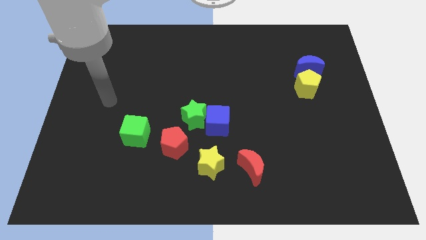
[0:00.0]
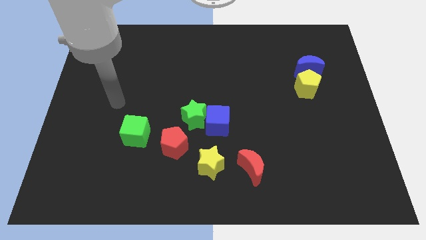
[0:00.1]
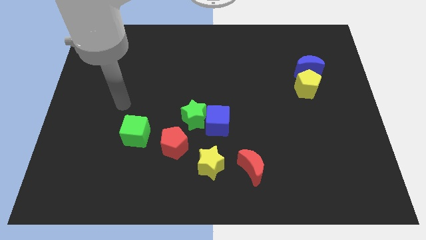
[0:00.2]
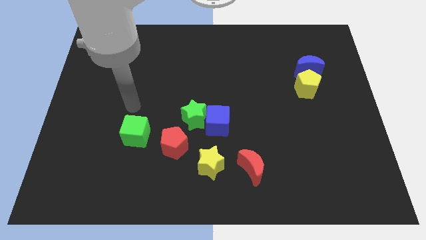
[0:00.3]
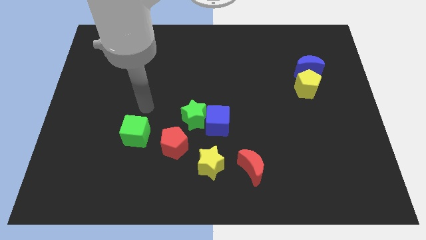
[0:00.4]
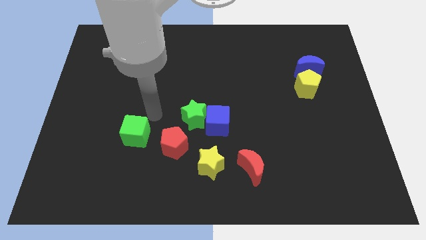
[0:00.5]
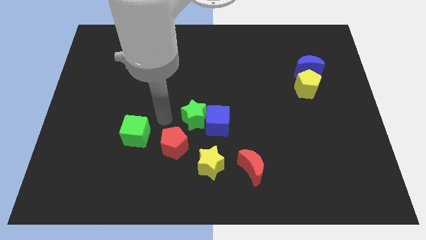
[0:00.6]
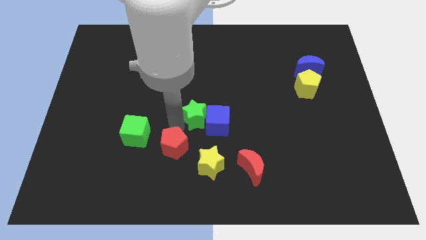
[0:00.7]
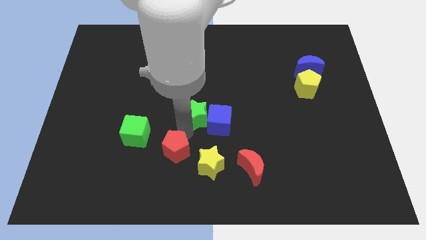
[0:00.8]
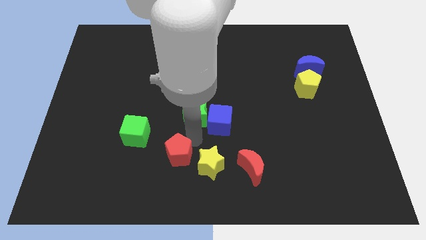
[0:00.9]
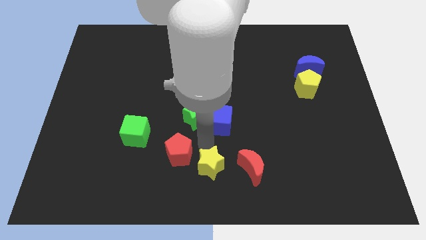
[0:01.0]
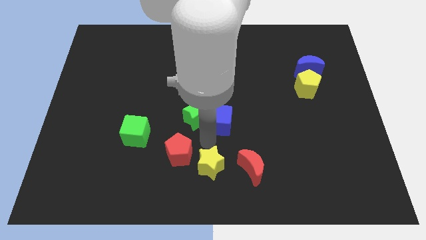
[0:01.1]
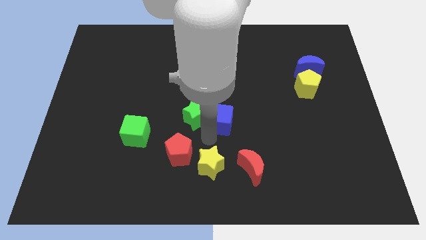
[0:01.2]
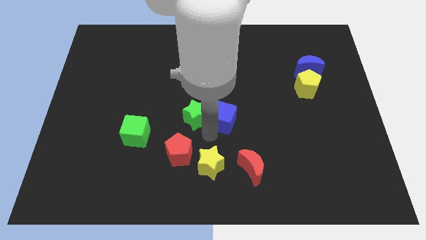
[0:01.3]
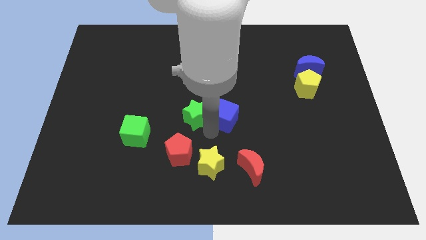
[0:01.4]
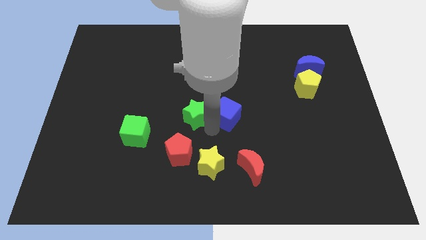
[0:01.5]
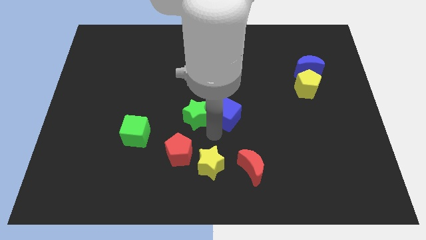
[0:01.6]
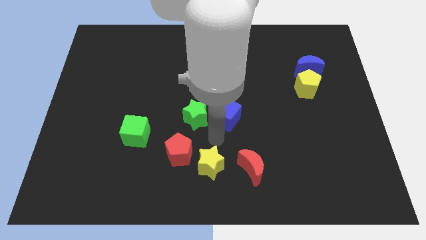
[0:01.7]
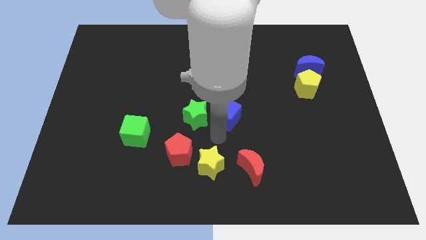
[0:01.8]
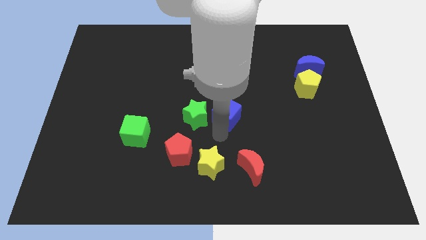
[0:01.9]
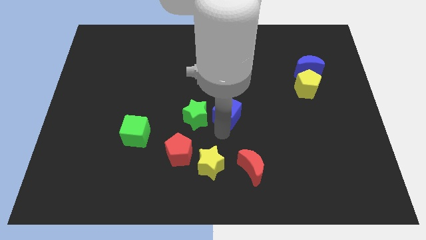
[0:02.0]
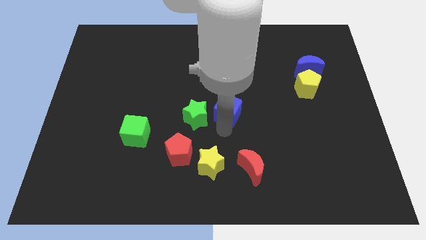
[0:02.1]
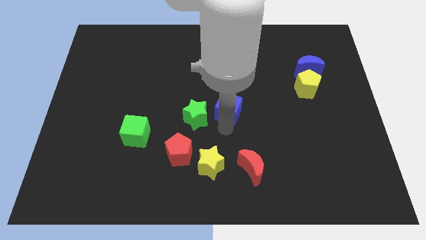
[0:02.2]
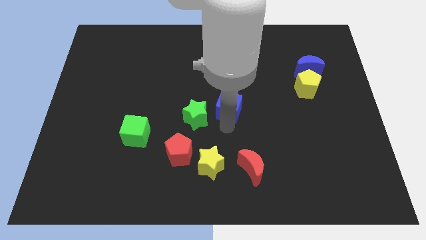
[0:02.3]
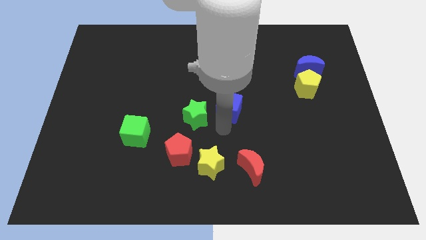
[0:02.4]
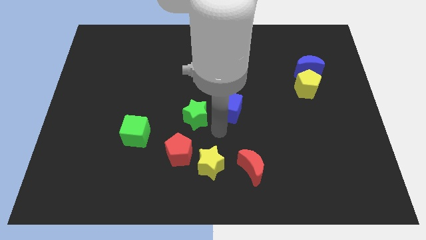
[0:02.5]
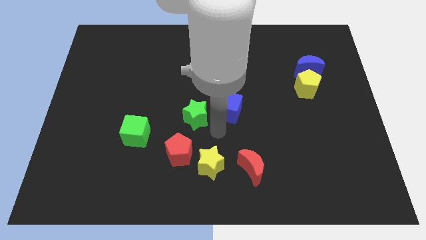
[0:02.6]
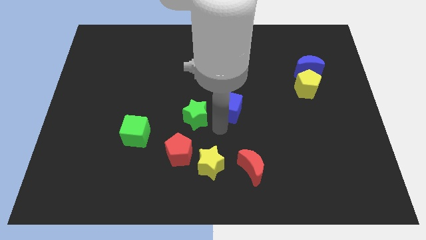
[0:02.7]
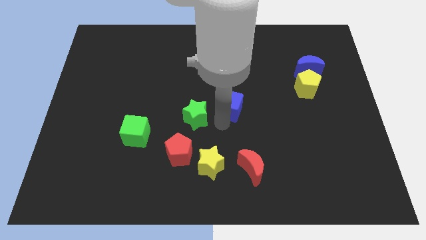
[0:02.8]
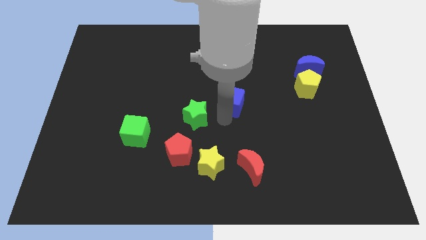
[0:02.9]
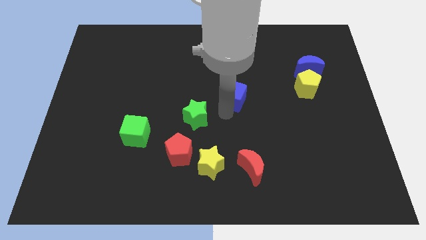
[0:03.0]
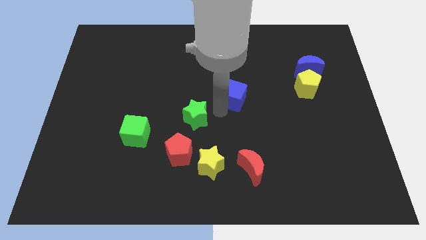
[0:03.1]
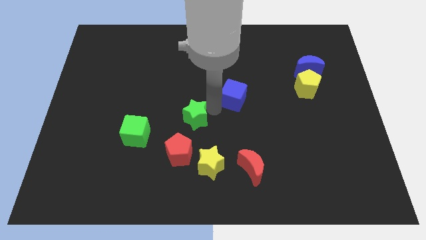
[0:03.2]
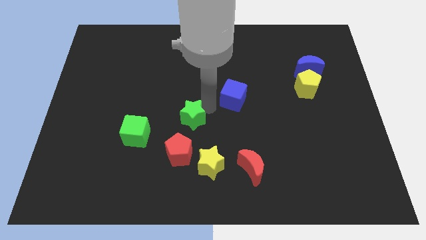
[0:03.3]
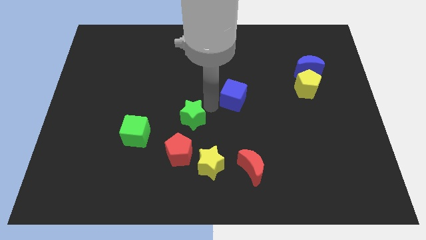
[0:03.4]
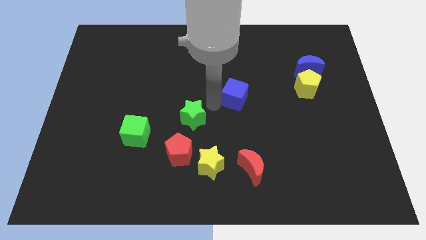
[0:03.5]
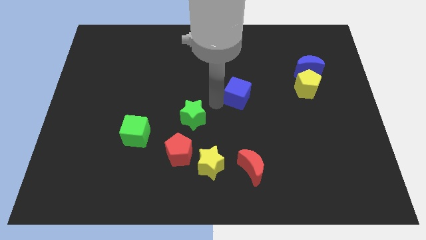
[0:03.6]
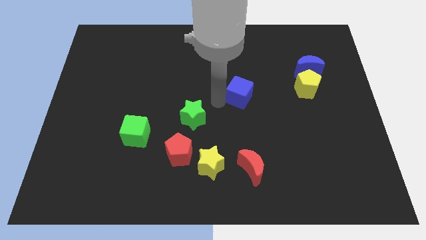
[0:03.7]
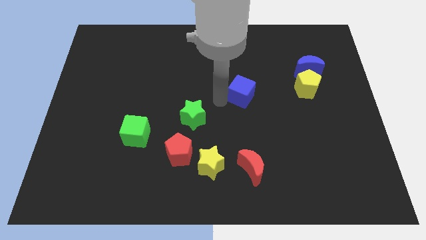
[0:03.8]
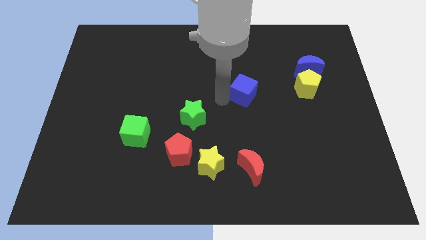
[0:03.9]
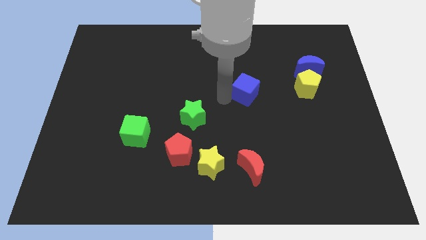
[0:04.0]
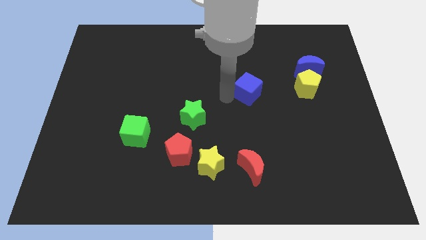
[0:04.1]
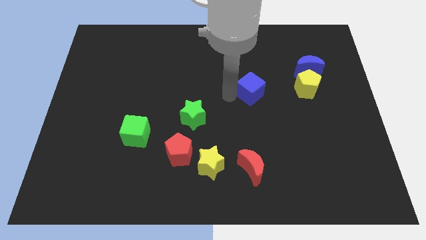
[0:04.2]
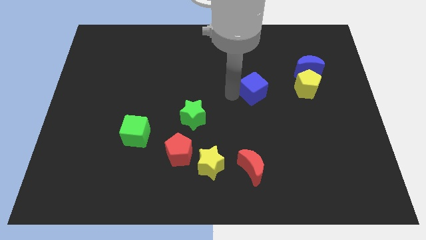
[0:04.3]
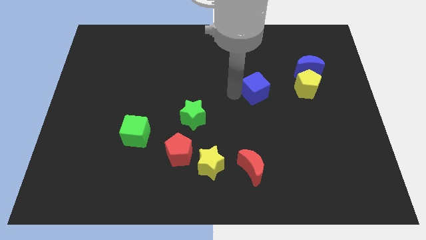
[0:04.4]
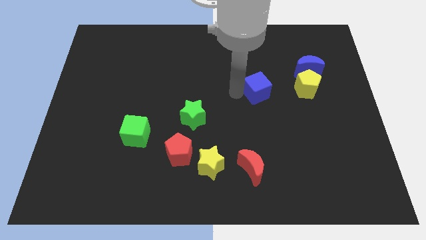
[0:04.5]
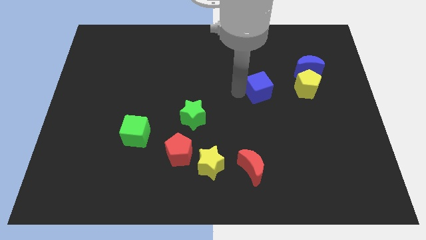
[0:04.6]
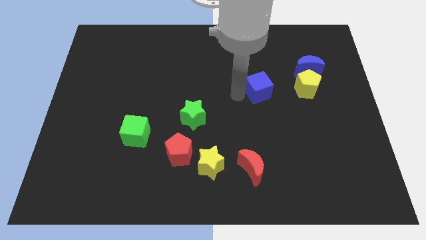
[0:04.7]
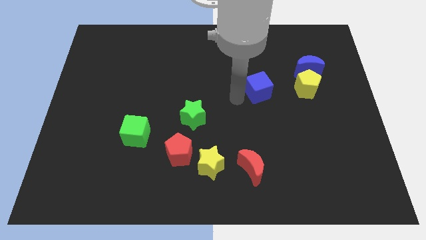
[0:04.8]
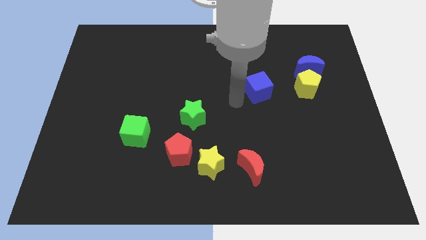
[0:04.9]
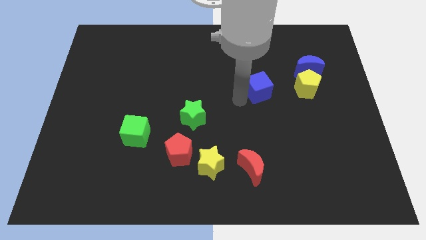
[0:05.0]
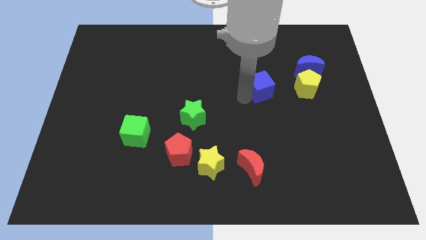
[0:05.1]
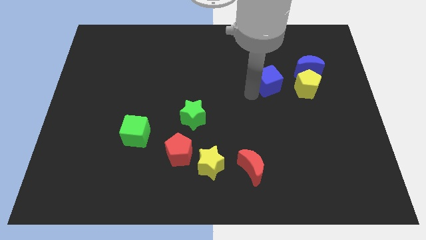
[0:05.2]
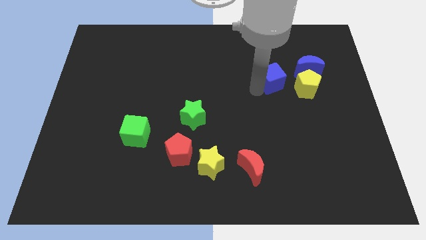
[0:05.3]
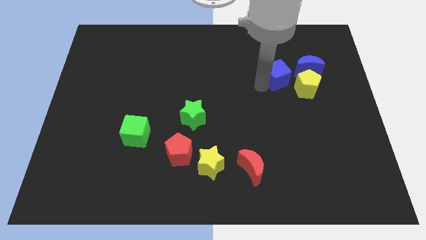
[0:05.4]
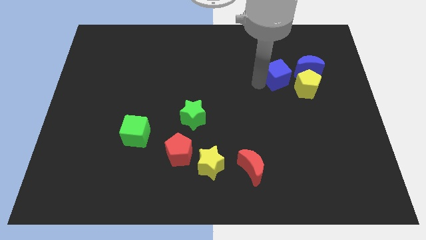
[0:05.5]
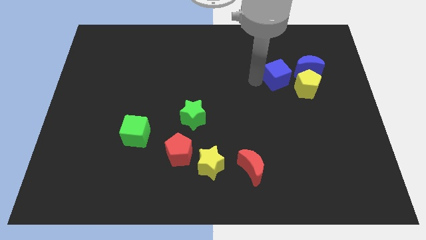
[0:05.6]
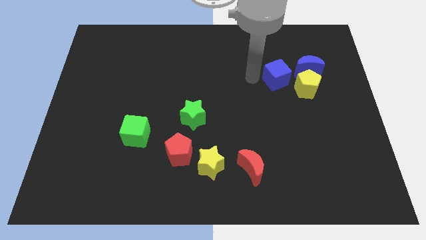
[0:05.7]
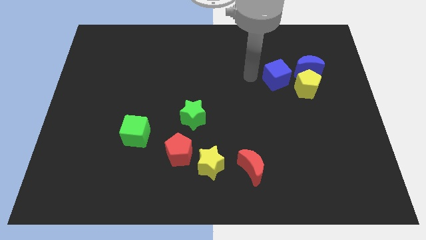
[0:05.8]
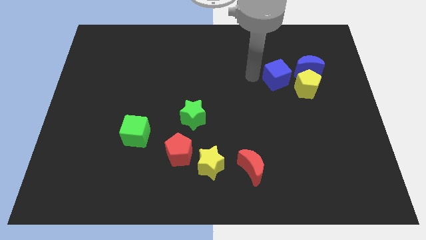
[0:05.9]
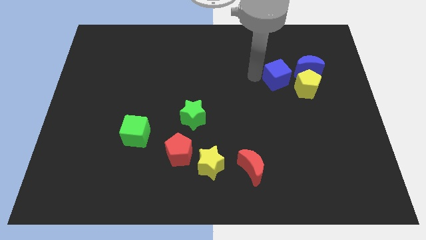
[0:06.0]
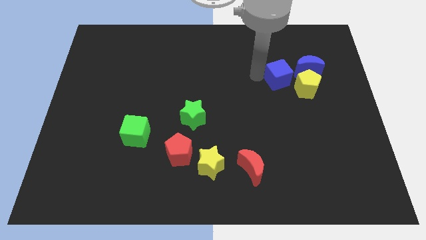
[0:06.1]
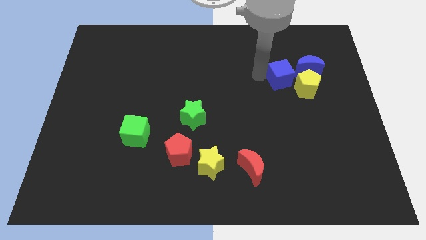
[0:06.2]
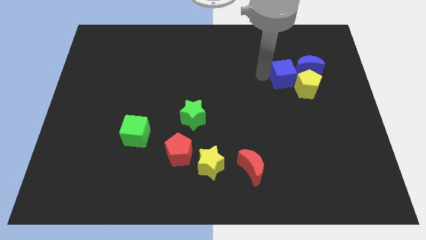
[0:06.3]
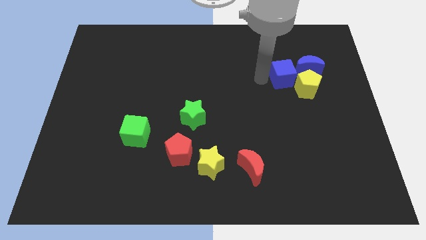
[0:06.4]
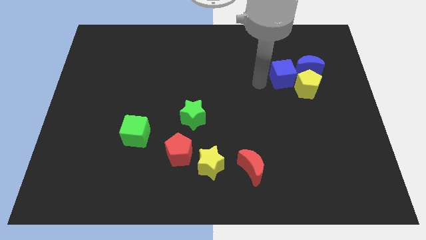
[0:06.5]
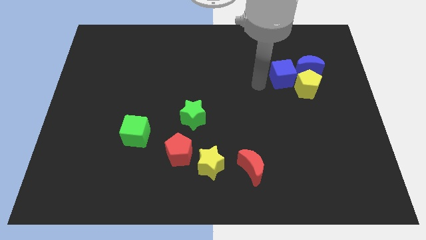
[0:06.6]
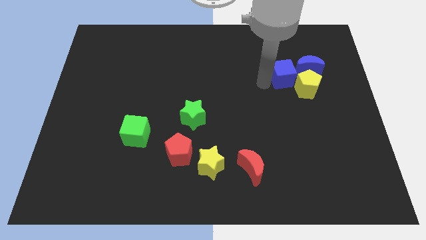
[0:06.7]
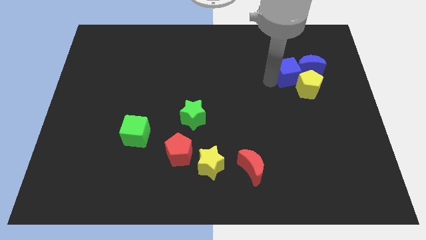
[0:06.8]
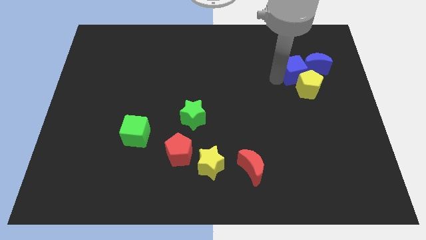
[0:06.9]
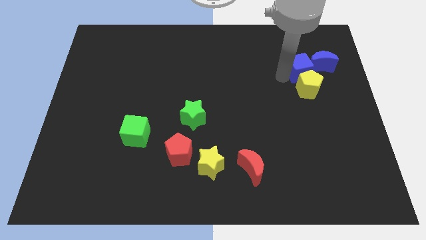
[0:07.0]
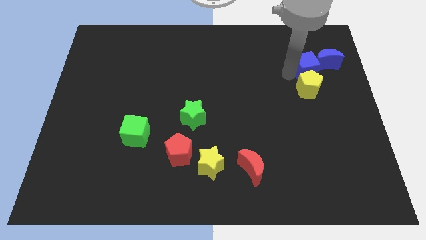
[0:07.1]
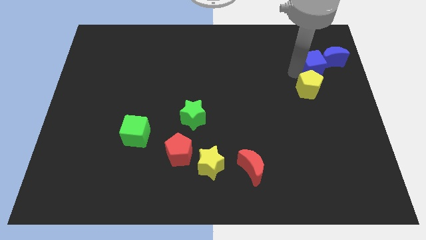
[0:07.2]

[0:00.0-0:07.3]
push the blue cube towards the blue moon
